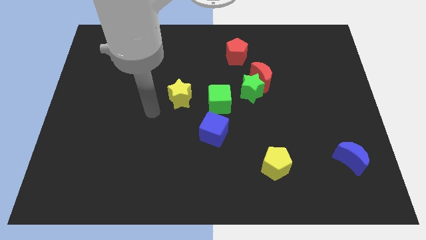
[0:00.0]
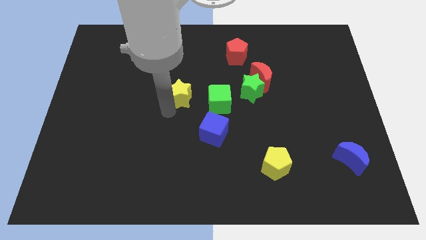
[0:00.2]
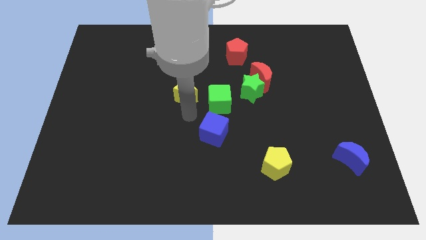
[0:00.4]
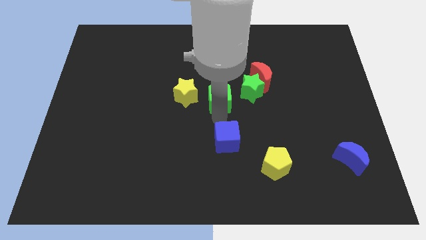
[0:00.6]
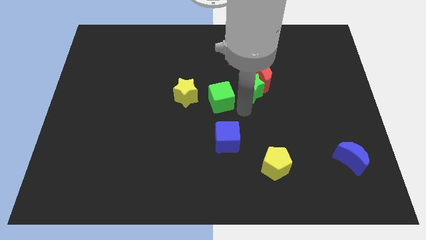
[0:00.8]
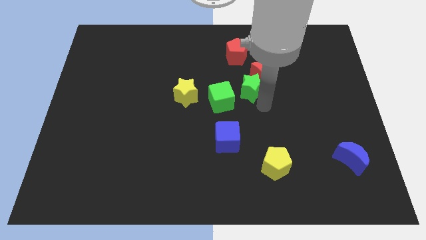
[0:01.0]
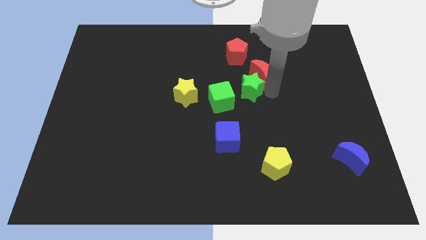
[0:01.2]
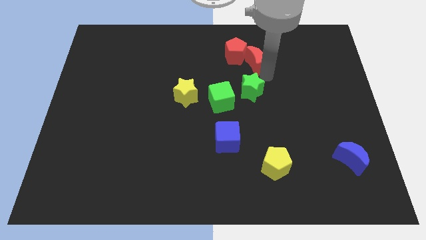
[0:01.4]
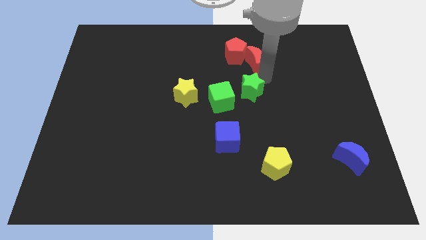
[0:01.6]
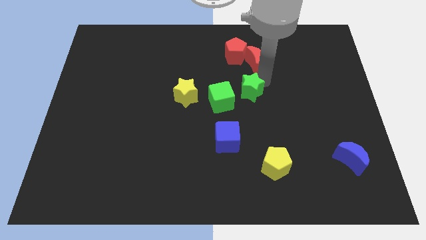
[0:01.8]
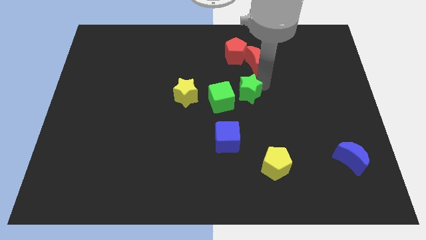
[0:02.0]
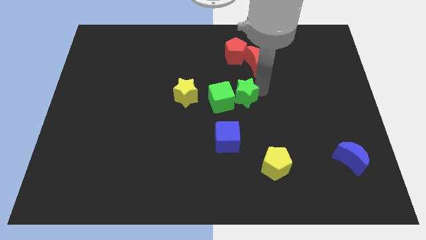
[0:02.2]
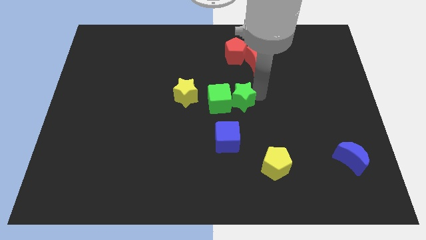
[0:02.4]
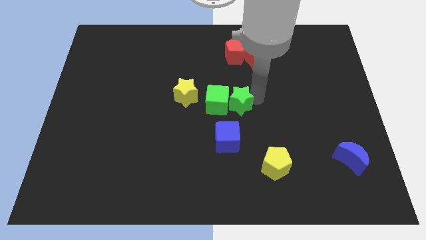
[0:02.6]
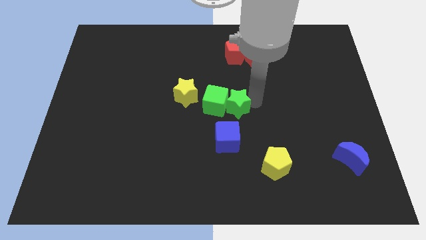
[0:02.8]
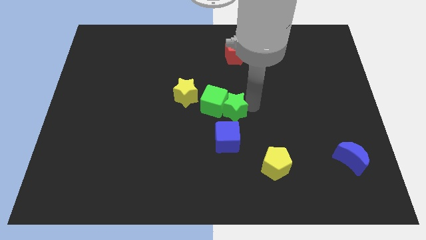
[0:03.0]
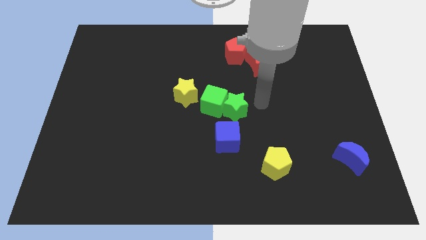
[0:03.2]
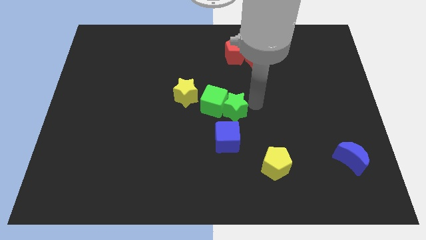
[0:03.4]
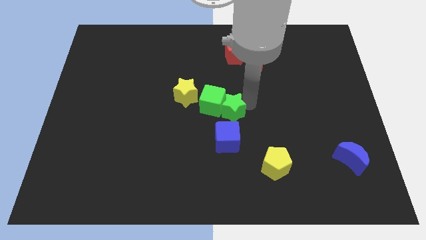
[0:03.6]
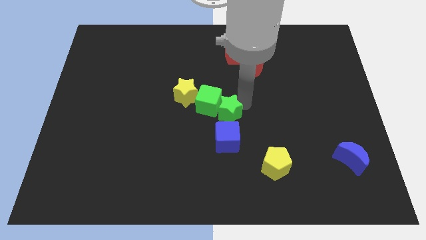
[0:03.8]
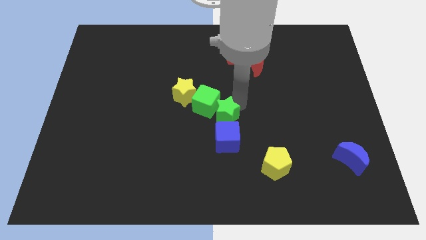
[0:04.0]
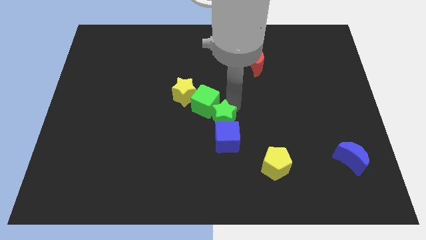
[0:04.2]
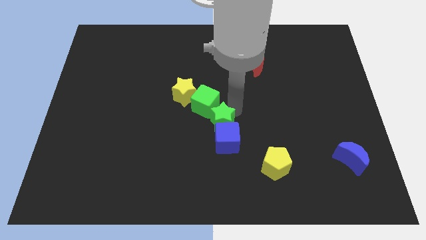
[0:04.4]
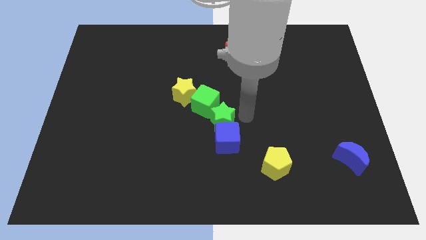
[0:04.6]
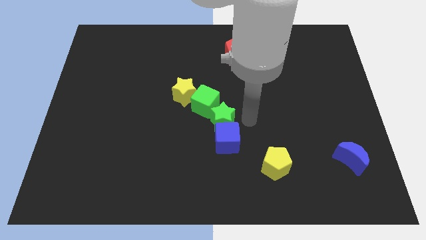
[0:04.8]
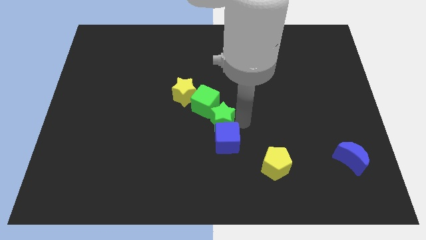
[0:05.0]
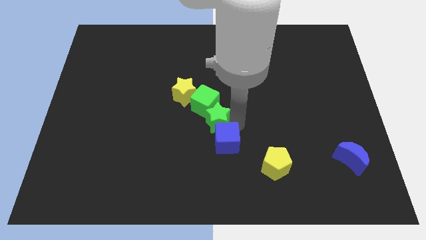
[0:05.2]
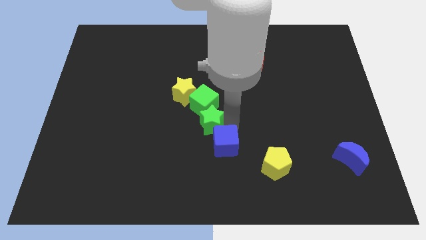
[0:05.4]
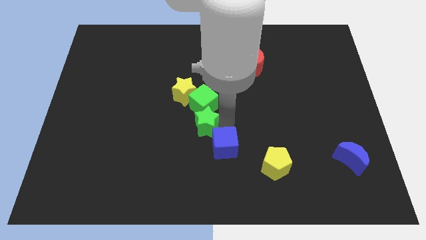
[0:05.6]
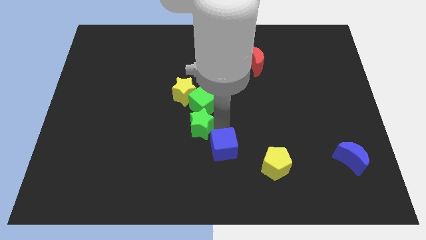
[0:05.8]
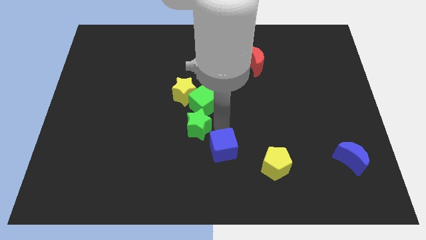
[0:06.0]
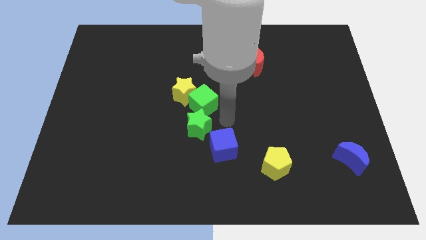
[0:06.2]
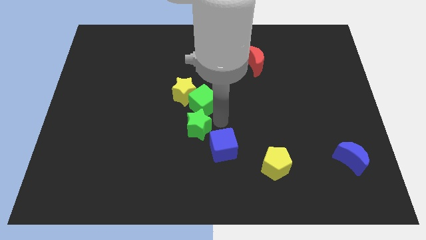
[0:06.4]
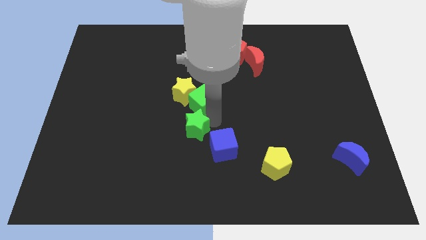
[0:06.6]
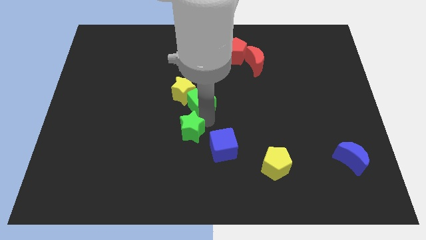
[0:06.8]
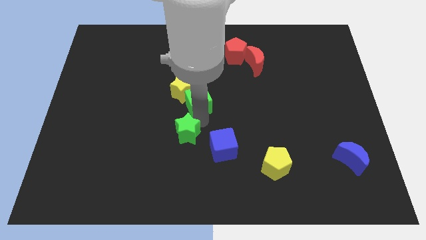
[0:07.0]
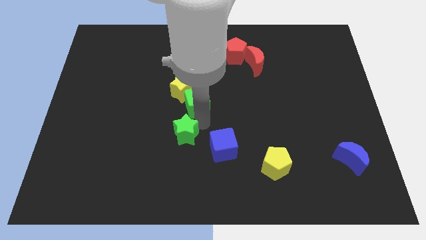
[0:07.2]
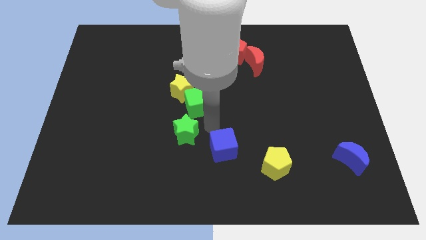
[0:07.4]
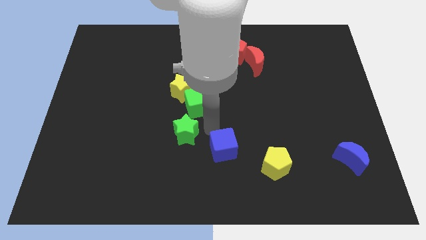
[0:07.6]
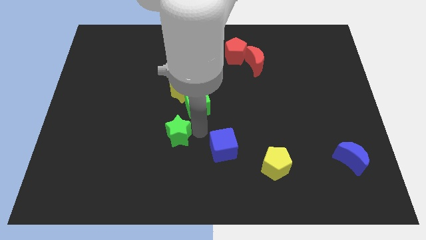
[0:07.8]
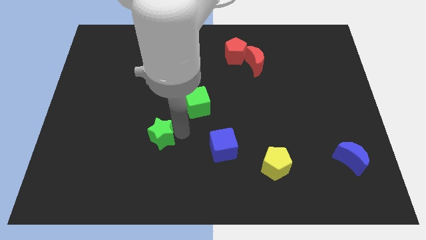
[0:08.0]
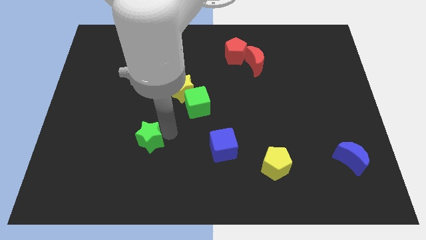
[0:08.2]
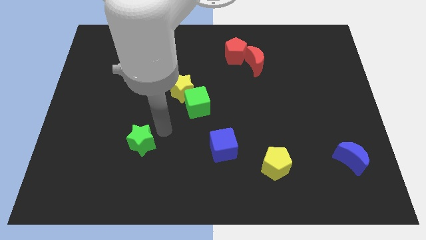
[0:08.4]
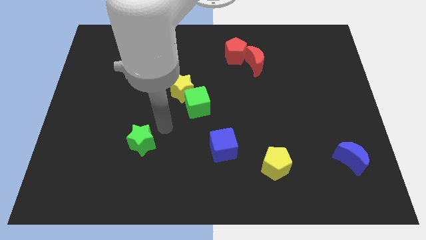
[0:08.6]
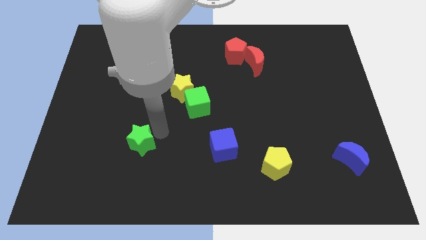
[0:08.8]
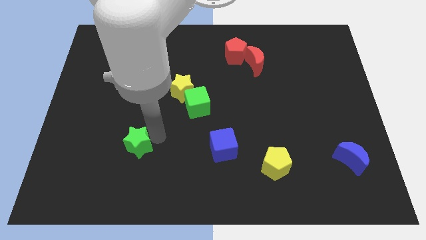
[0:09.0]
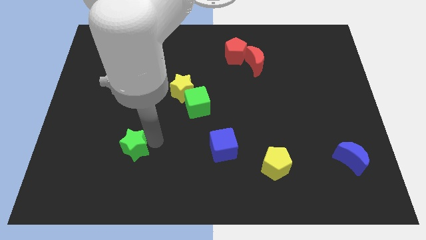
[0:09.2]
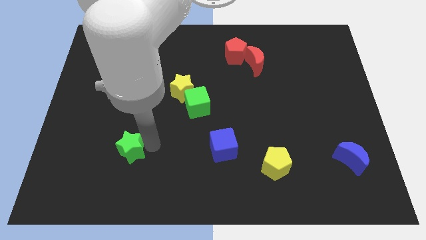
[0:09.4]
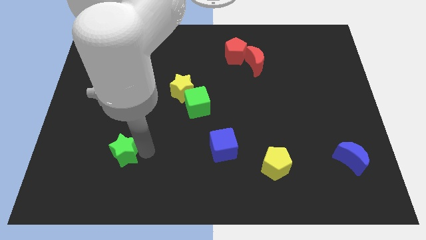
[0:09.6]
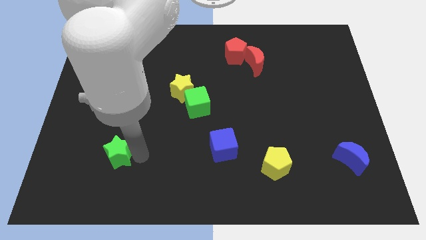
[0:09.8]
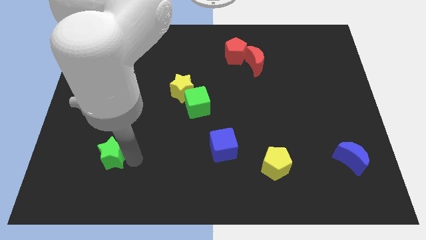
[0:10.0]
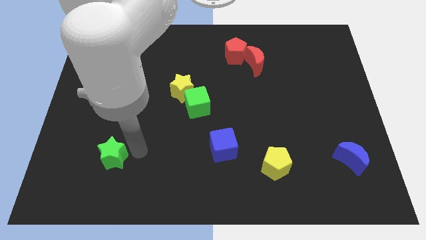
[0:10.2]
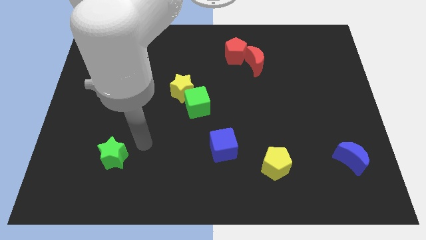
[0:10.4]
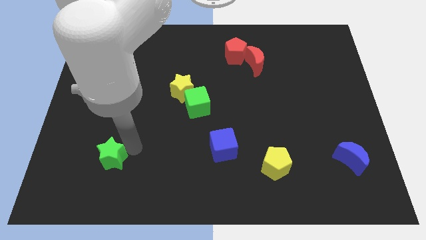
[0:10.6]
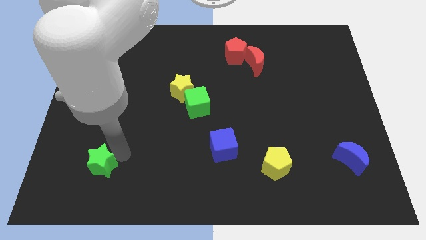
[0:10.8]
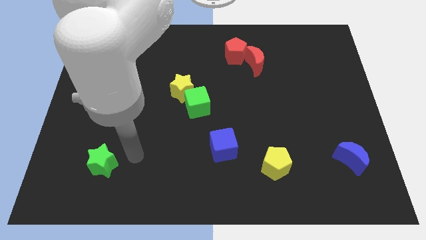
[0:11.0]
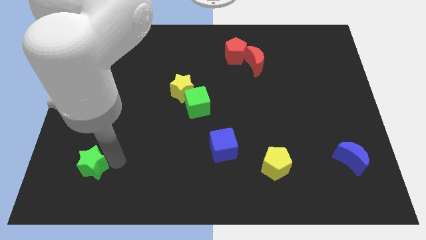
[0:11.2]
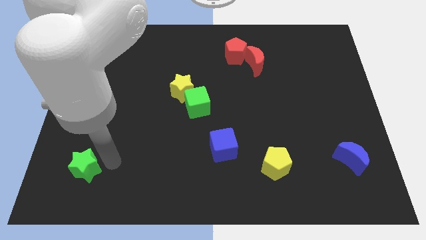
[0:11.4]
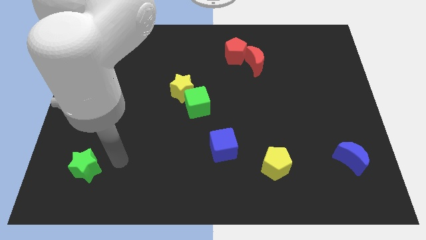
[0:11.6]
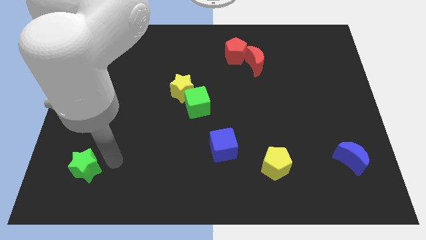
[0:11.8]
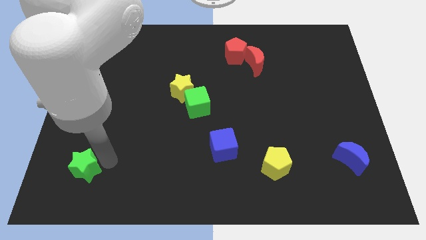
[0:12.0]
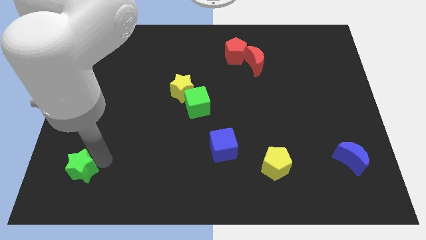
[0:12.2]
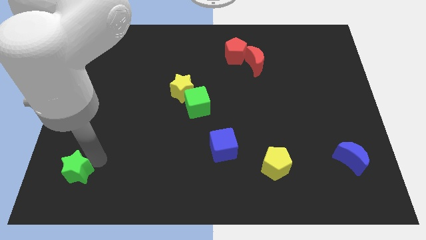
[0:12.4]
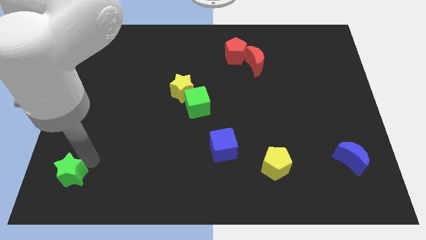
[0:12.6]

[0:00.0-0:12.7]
slide the green star to the bottom left
